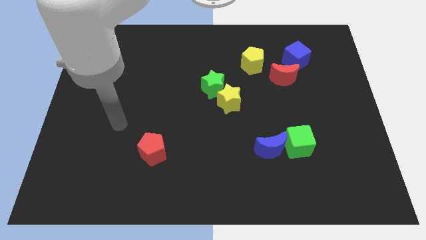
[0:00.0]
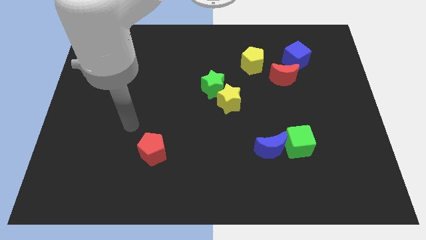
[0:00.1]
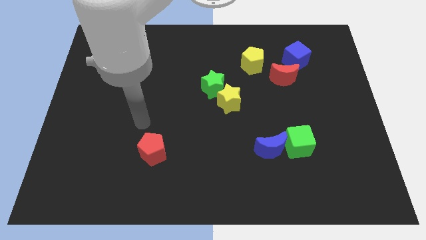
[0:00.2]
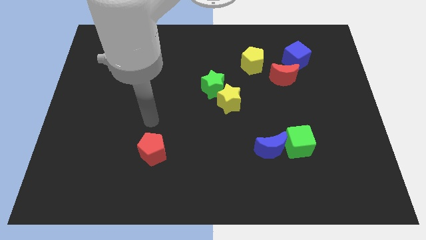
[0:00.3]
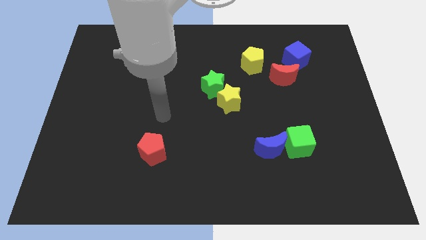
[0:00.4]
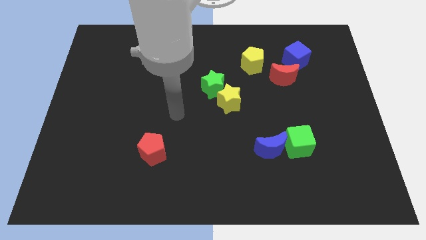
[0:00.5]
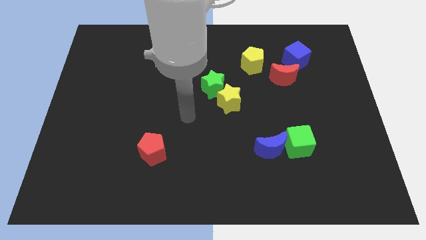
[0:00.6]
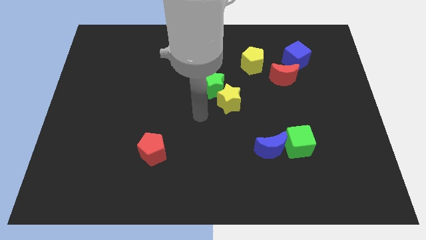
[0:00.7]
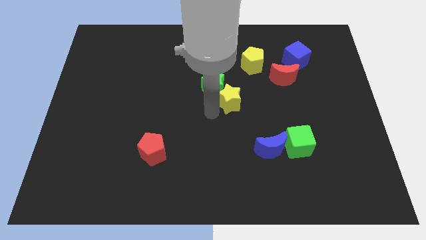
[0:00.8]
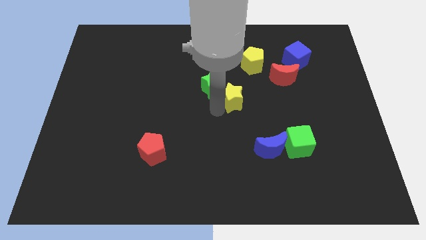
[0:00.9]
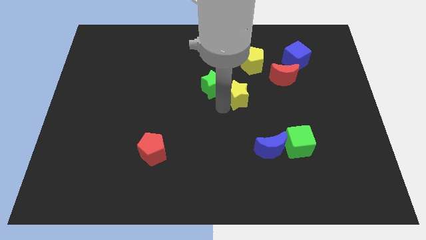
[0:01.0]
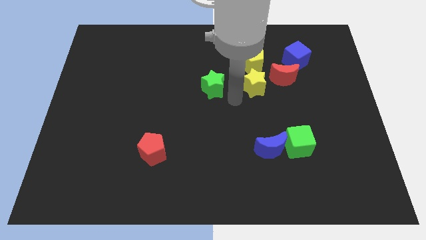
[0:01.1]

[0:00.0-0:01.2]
separate the green star from the yellow star

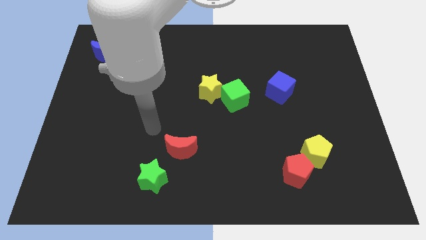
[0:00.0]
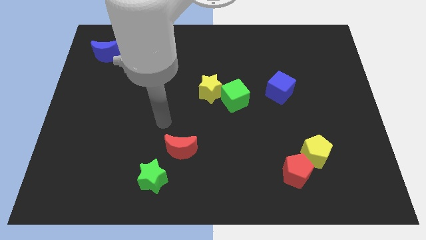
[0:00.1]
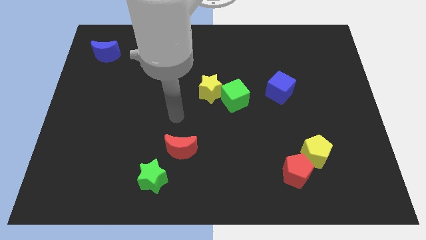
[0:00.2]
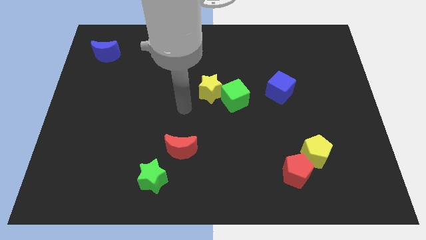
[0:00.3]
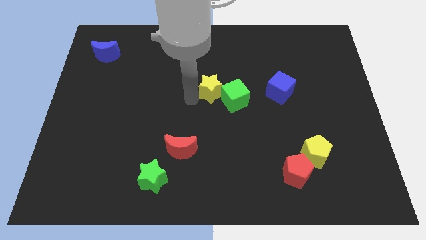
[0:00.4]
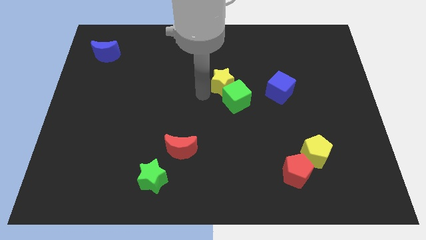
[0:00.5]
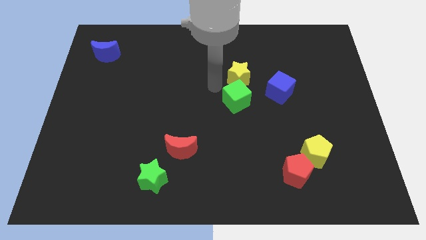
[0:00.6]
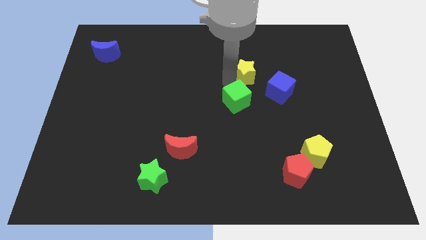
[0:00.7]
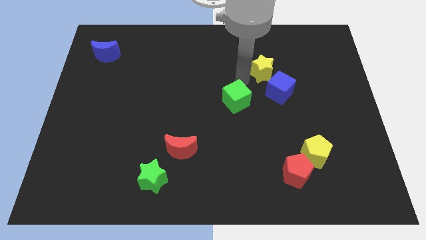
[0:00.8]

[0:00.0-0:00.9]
separate the green cube from the yellow star

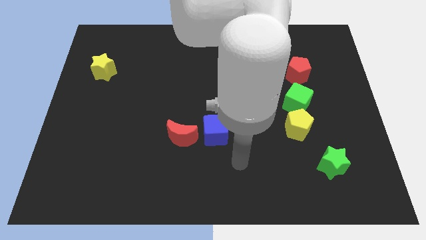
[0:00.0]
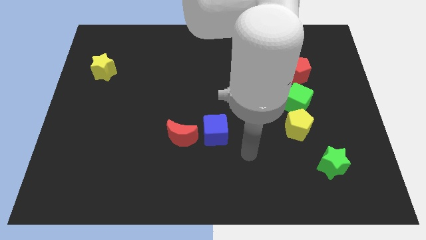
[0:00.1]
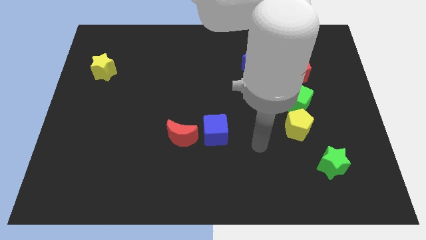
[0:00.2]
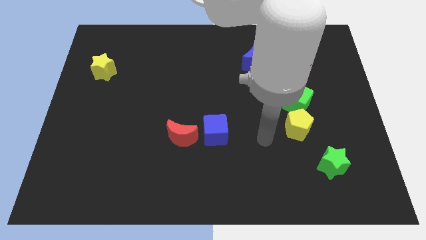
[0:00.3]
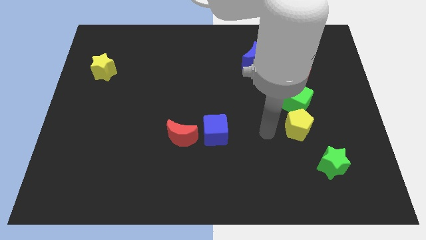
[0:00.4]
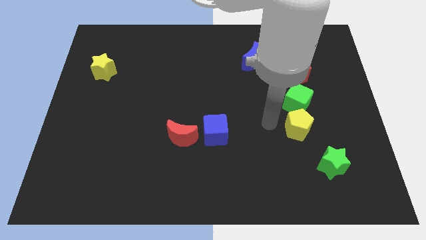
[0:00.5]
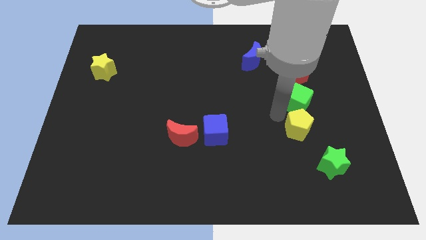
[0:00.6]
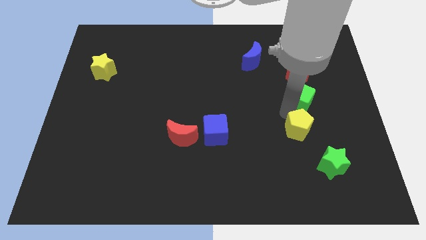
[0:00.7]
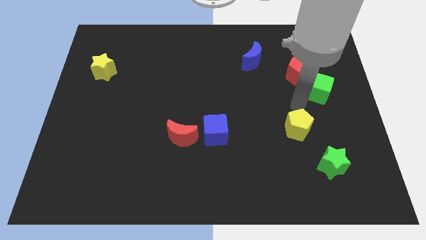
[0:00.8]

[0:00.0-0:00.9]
pull the yellow pentagon apart from the green cube

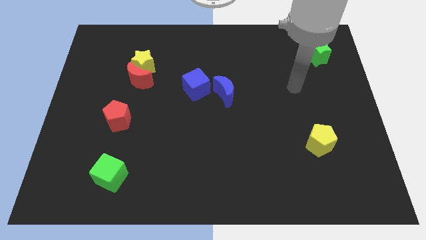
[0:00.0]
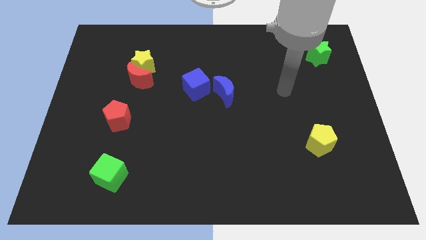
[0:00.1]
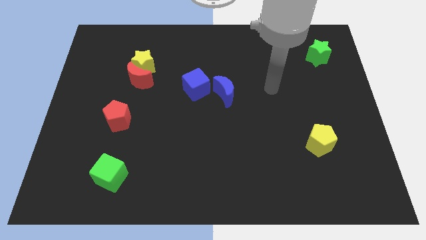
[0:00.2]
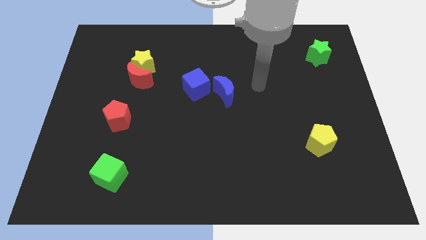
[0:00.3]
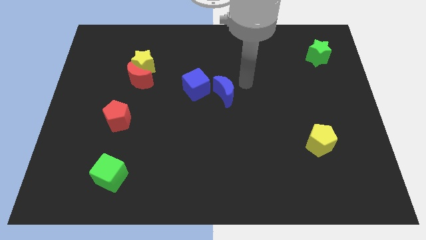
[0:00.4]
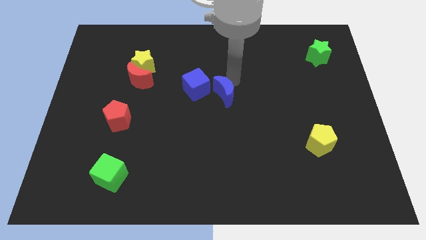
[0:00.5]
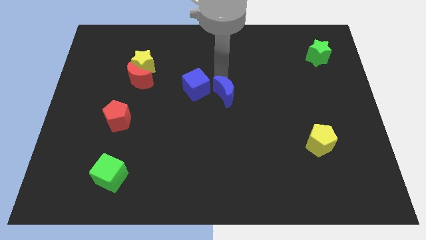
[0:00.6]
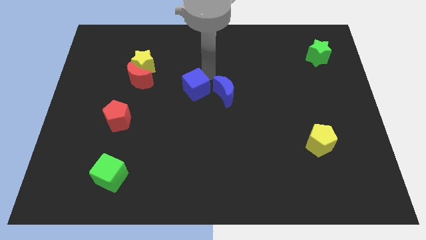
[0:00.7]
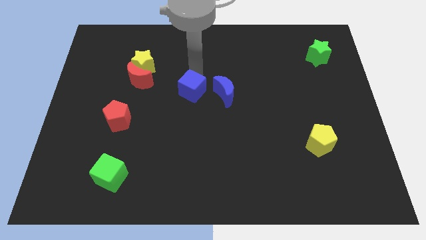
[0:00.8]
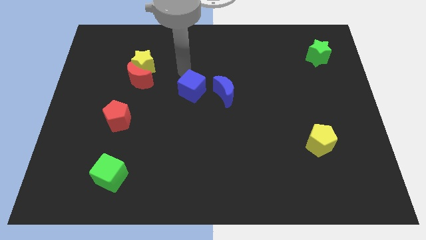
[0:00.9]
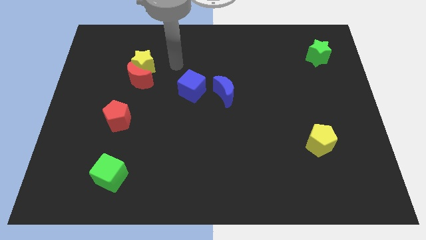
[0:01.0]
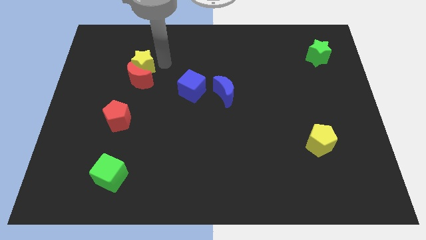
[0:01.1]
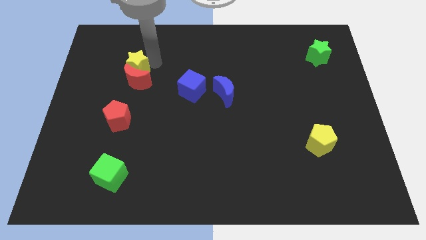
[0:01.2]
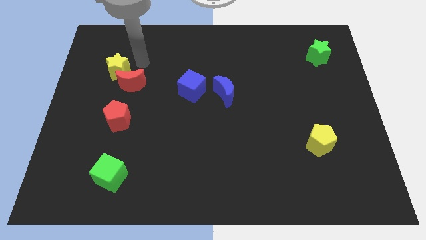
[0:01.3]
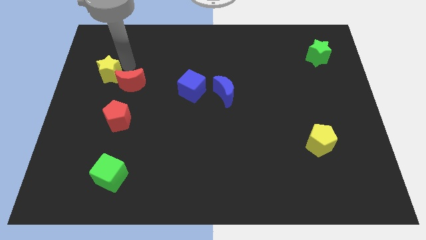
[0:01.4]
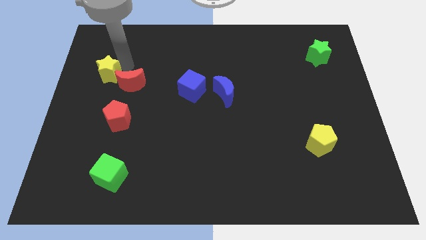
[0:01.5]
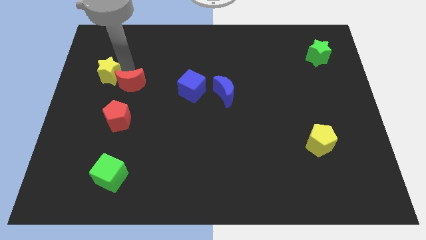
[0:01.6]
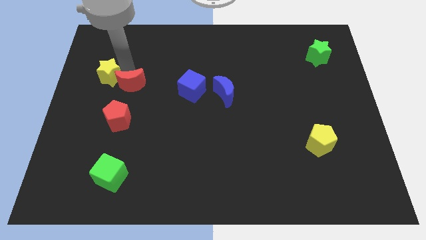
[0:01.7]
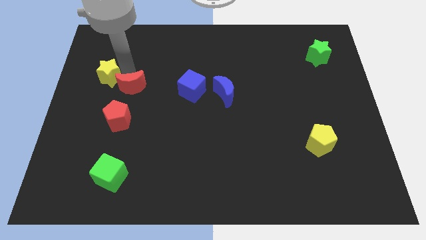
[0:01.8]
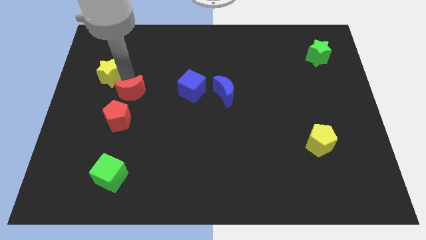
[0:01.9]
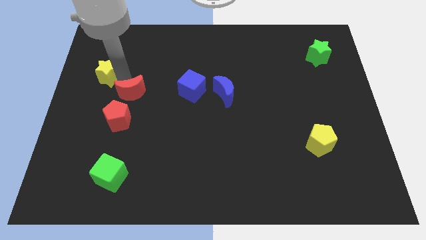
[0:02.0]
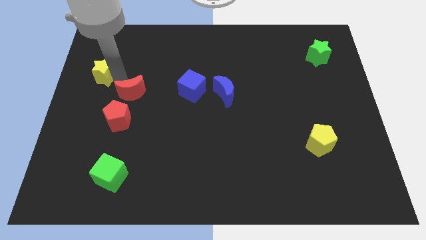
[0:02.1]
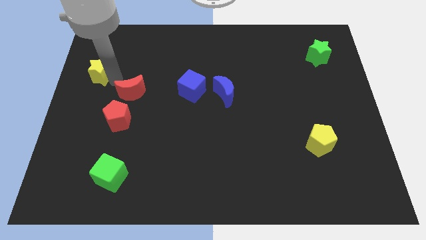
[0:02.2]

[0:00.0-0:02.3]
move the red moon away from the yellow star

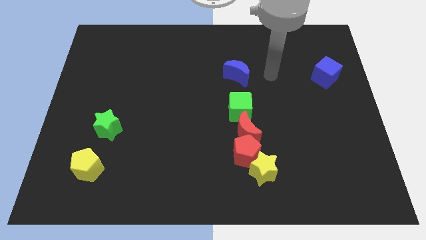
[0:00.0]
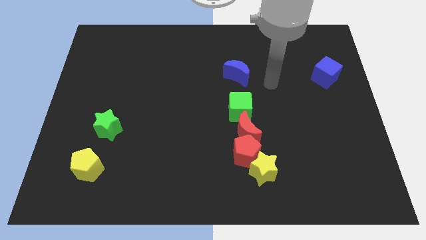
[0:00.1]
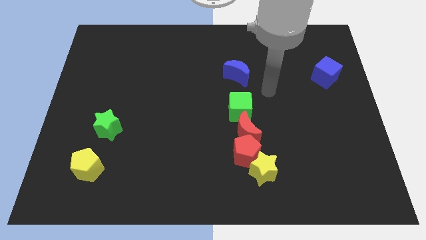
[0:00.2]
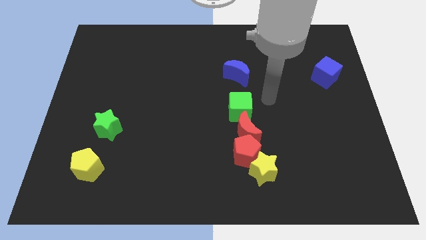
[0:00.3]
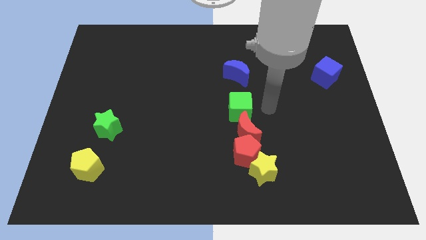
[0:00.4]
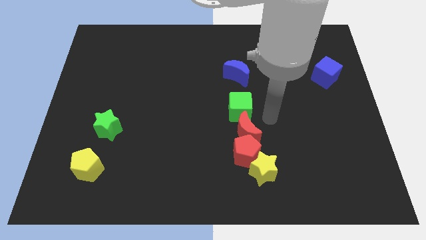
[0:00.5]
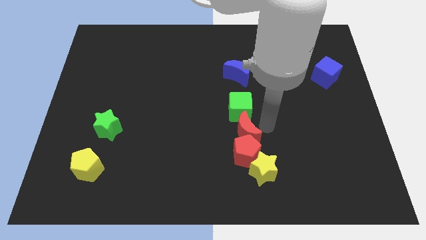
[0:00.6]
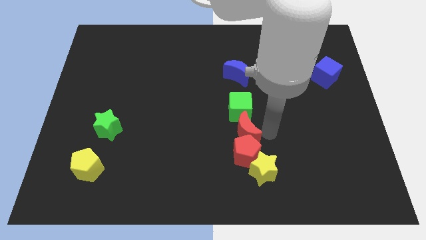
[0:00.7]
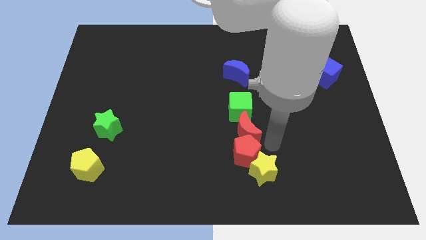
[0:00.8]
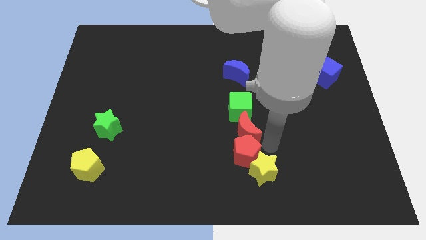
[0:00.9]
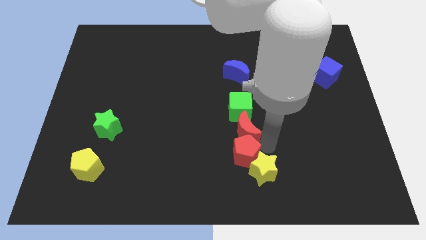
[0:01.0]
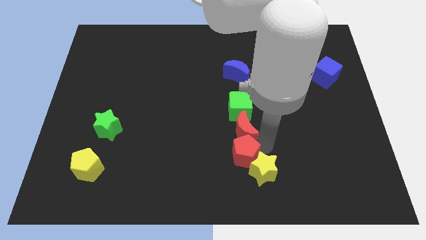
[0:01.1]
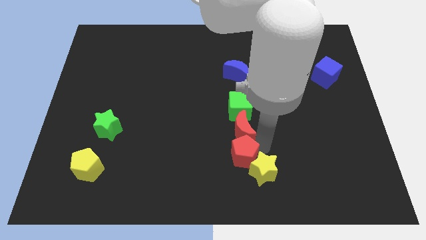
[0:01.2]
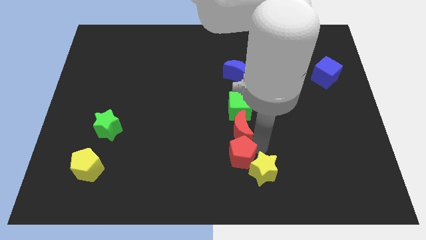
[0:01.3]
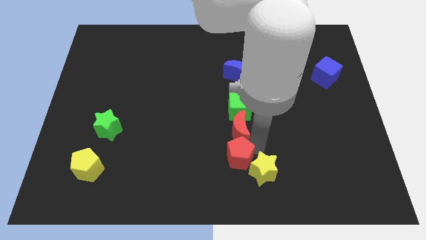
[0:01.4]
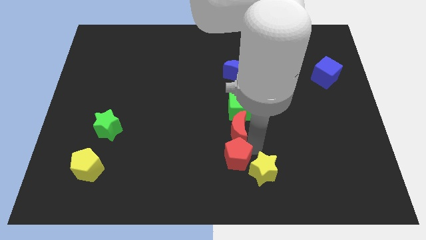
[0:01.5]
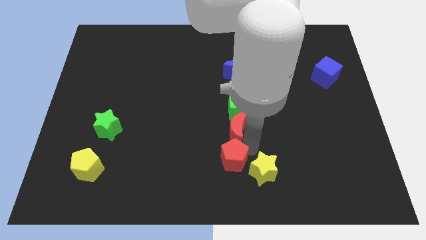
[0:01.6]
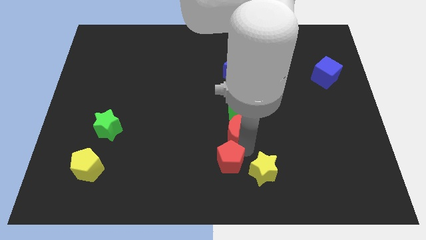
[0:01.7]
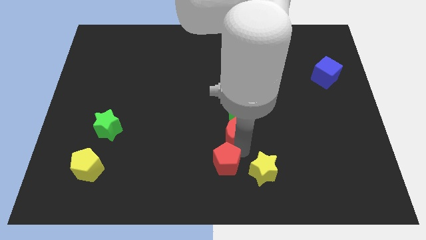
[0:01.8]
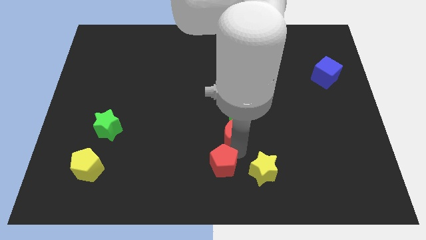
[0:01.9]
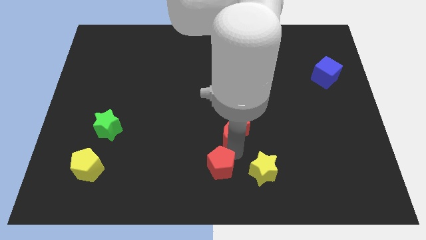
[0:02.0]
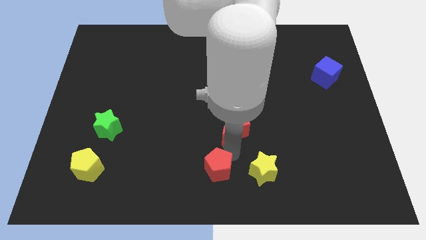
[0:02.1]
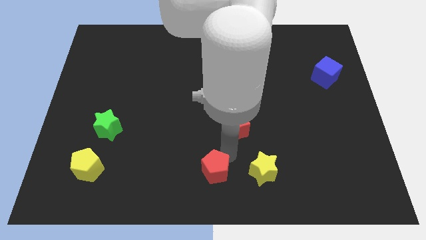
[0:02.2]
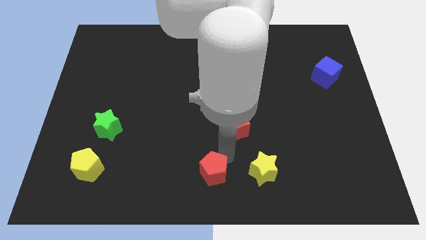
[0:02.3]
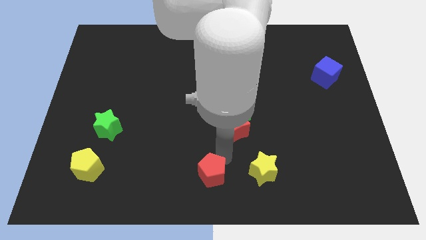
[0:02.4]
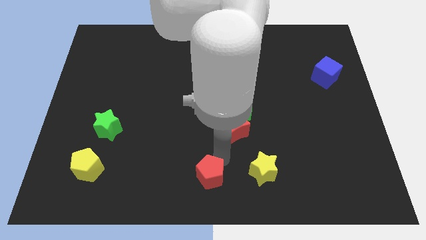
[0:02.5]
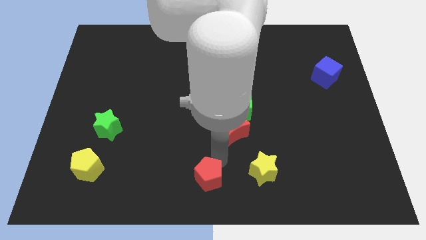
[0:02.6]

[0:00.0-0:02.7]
move the red pentagon away from the yellow star and red moon

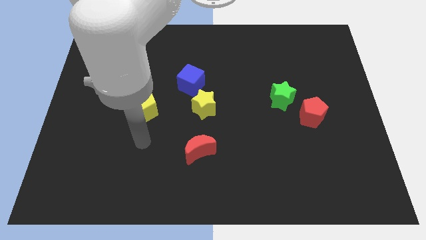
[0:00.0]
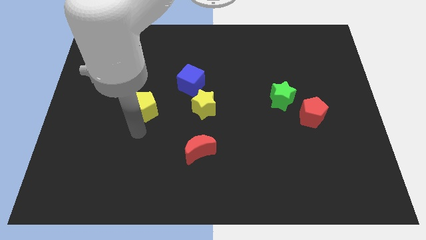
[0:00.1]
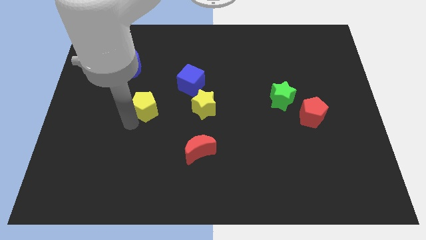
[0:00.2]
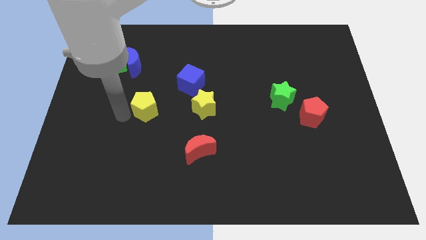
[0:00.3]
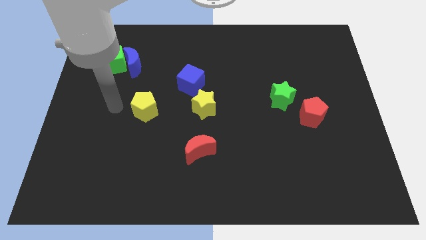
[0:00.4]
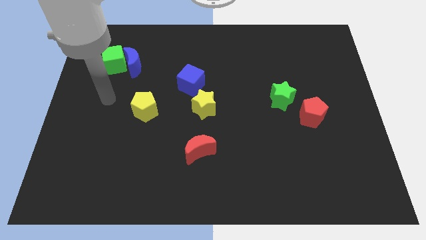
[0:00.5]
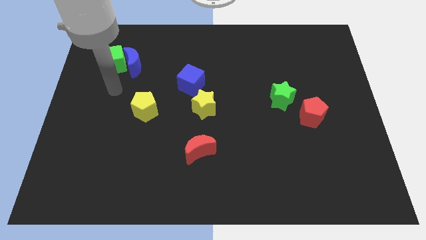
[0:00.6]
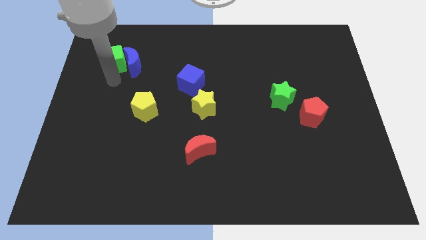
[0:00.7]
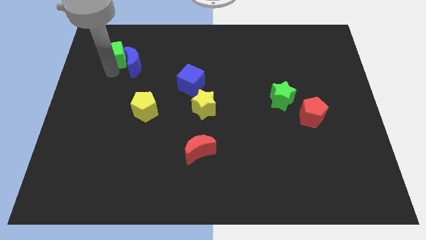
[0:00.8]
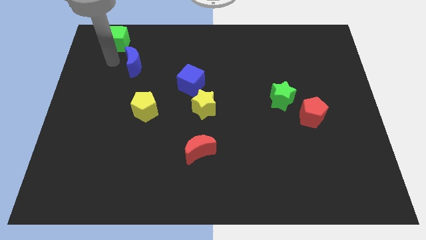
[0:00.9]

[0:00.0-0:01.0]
move the blue moon away from the green cube

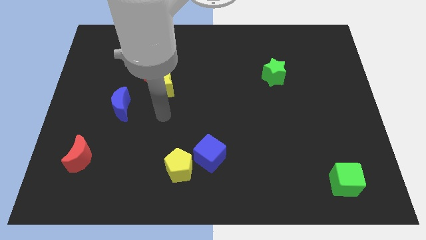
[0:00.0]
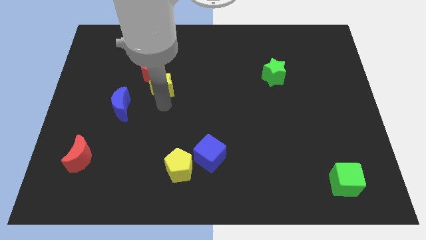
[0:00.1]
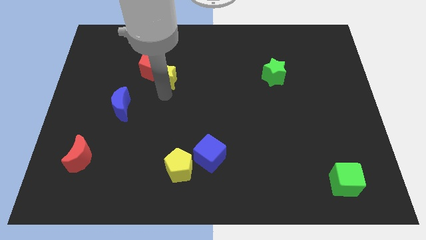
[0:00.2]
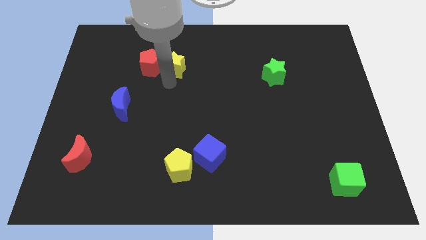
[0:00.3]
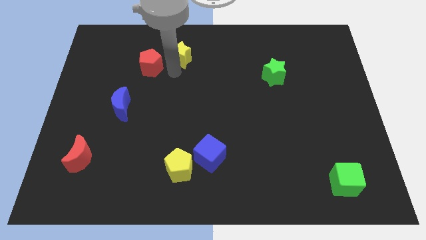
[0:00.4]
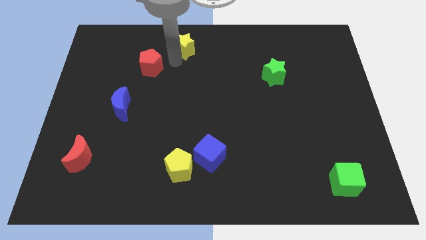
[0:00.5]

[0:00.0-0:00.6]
pull the red pentagon apart from the yellow star
